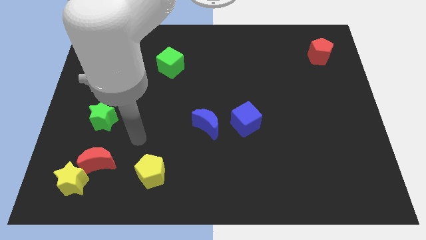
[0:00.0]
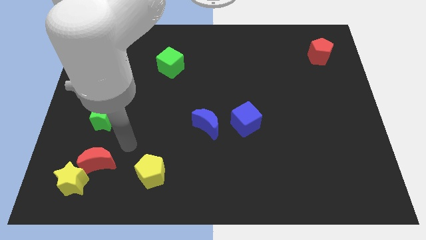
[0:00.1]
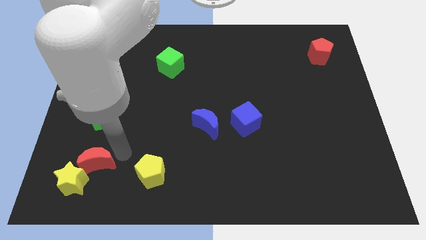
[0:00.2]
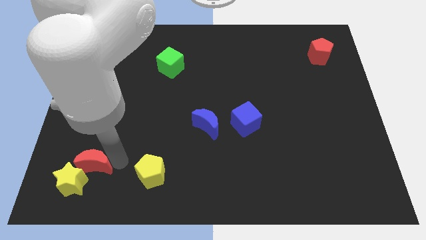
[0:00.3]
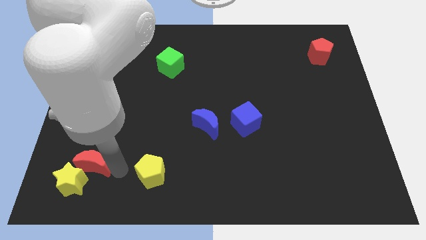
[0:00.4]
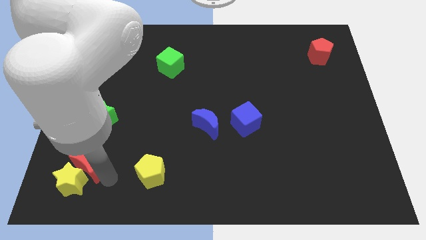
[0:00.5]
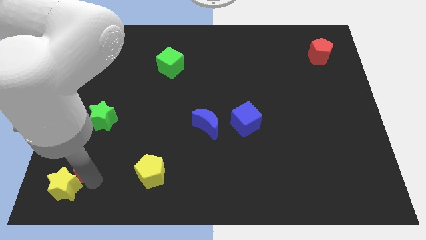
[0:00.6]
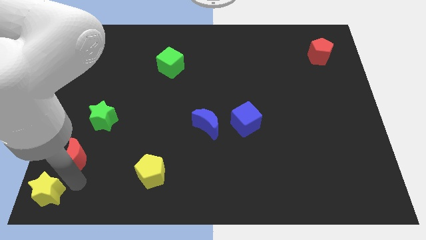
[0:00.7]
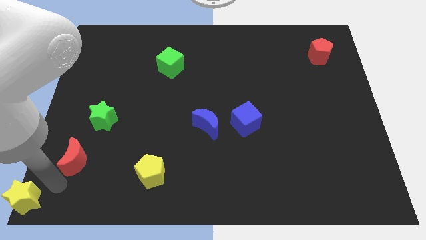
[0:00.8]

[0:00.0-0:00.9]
separate the red moon from the yellow star

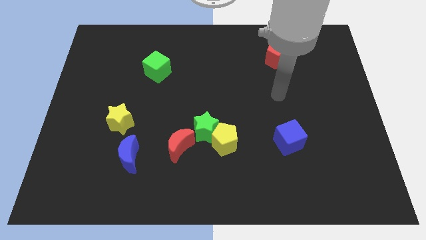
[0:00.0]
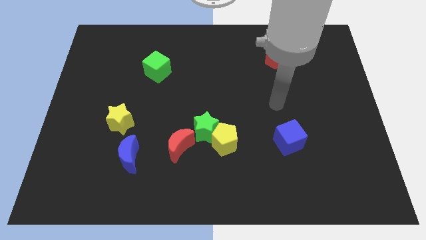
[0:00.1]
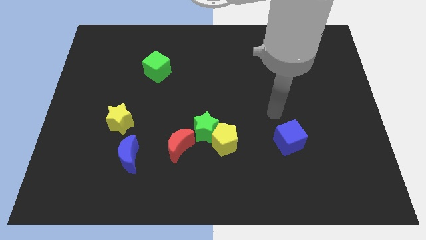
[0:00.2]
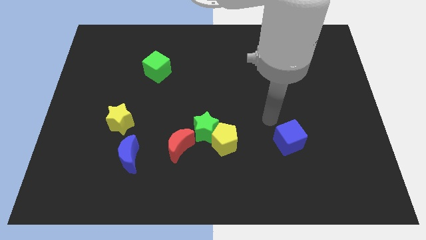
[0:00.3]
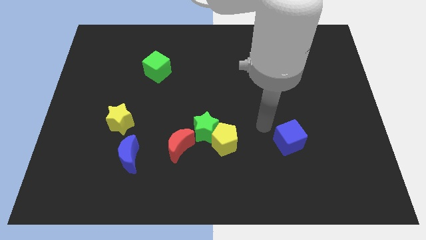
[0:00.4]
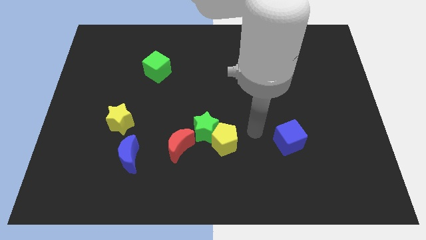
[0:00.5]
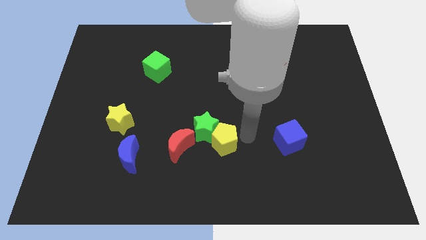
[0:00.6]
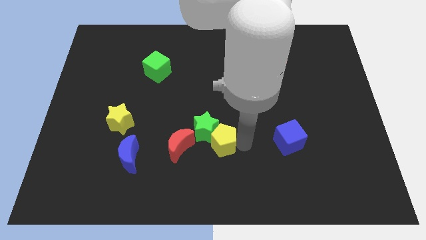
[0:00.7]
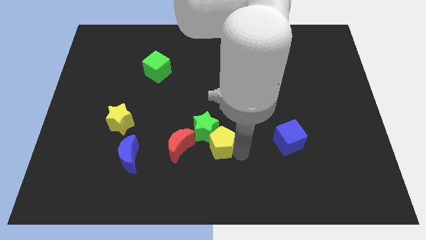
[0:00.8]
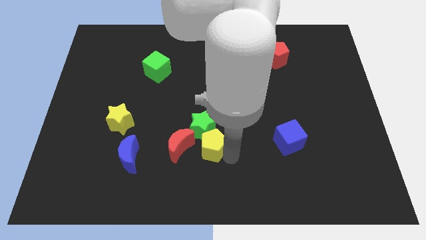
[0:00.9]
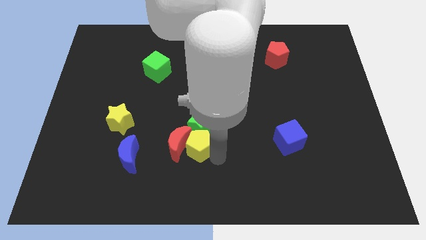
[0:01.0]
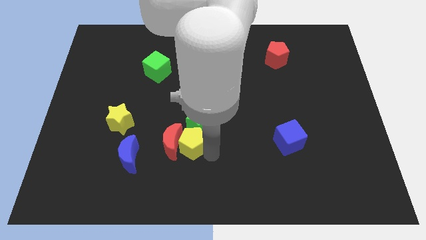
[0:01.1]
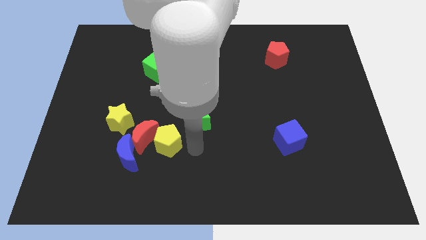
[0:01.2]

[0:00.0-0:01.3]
pull the green star apart from the yellow pentagon and red moon

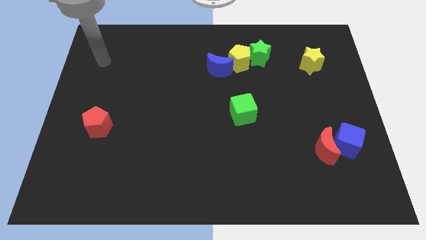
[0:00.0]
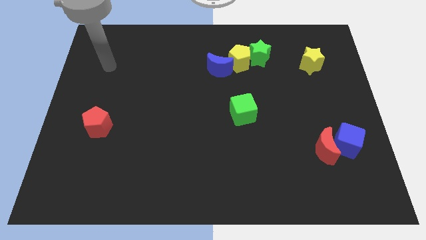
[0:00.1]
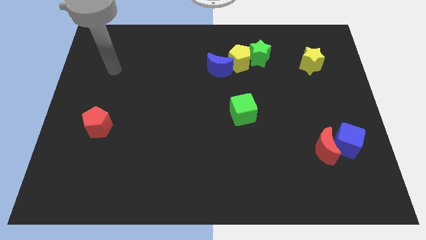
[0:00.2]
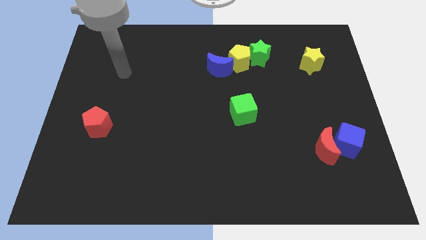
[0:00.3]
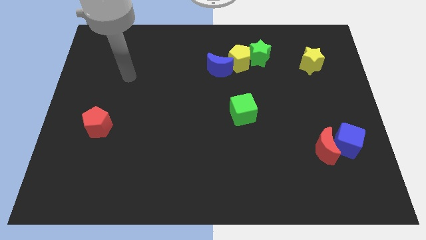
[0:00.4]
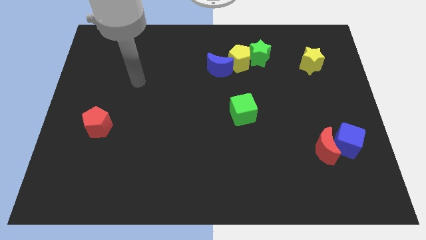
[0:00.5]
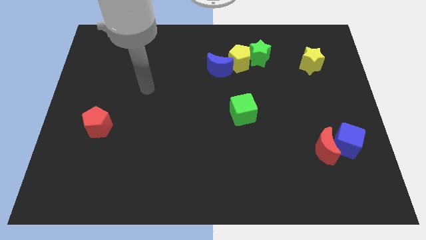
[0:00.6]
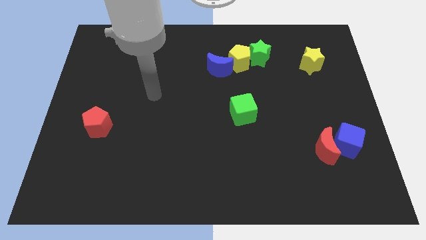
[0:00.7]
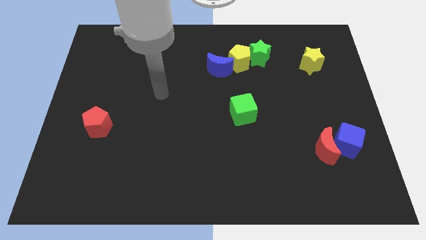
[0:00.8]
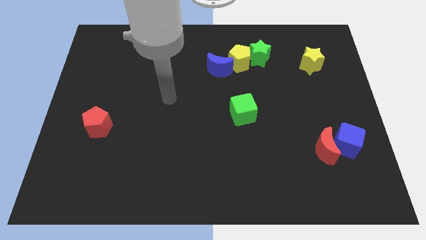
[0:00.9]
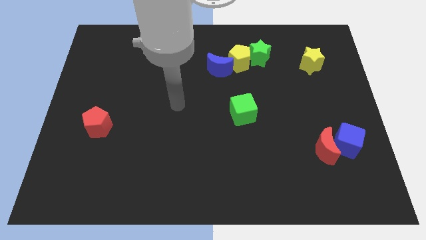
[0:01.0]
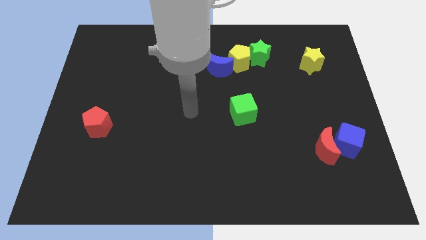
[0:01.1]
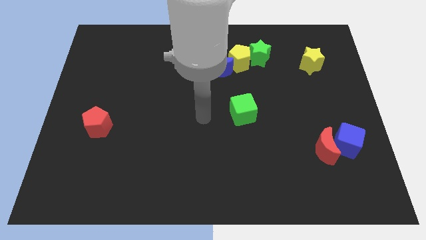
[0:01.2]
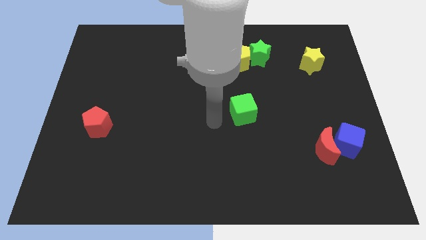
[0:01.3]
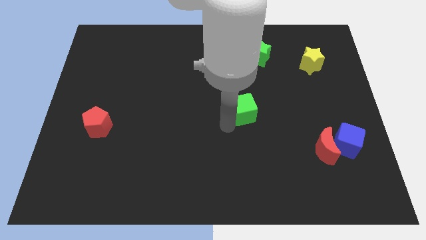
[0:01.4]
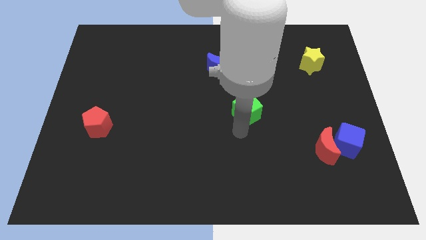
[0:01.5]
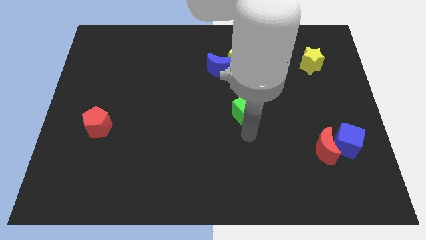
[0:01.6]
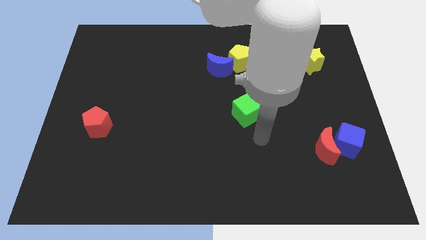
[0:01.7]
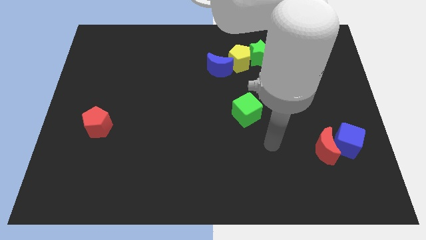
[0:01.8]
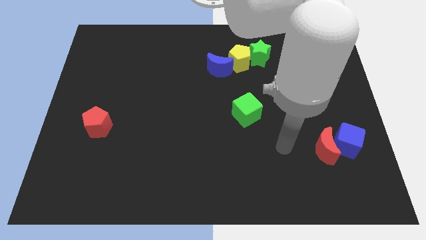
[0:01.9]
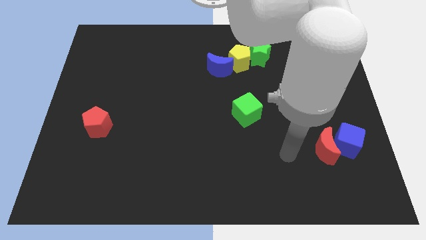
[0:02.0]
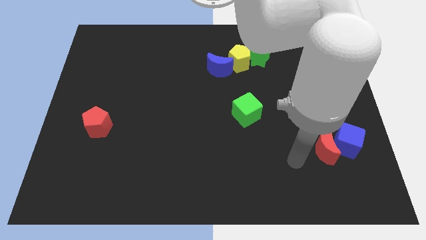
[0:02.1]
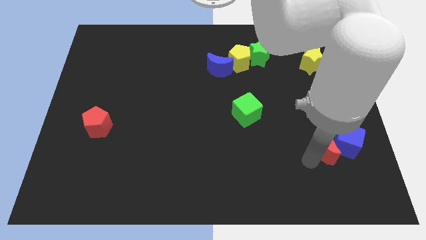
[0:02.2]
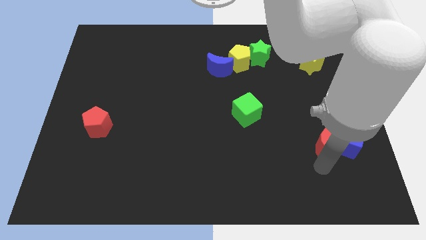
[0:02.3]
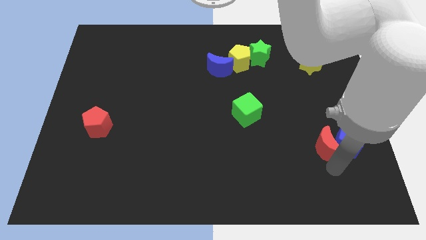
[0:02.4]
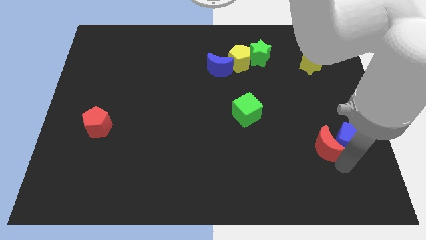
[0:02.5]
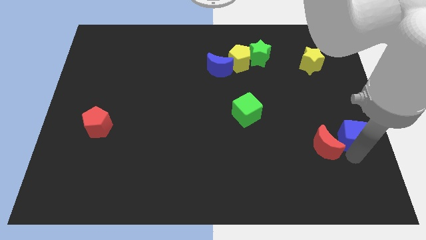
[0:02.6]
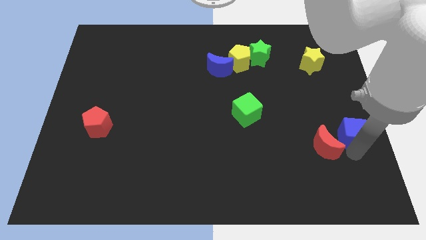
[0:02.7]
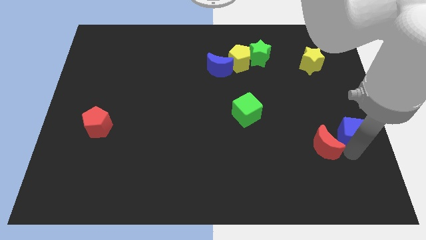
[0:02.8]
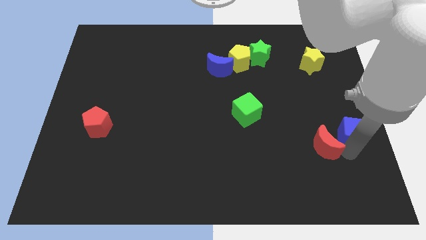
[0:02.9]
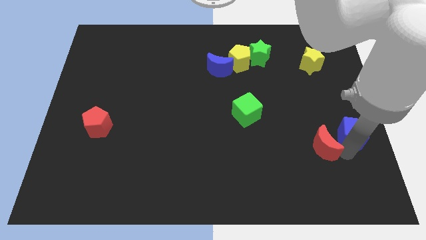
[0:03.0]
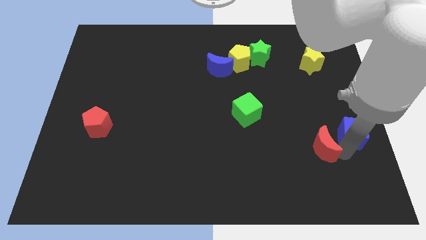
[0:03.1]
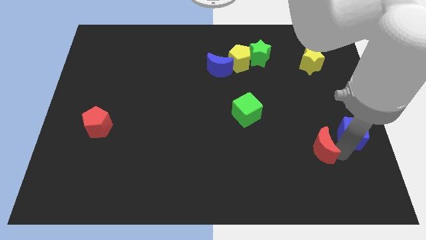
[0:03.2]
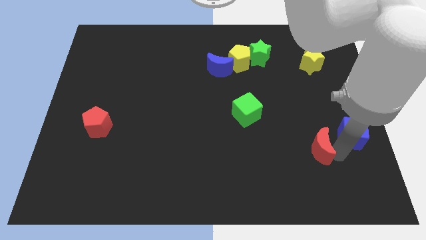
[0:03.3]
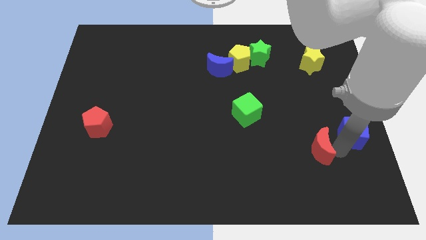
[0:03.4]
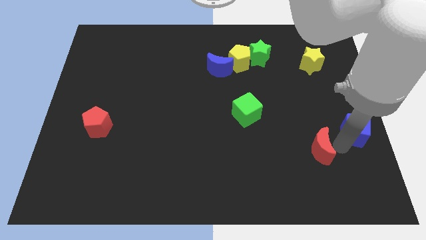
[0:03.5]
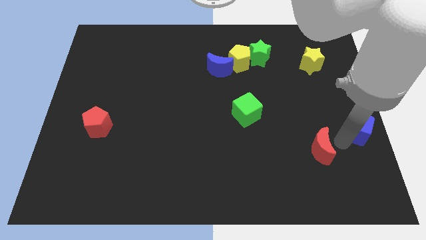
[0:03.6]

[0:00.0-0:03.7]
separate the red moon from the blue cube

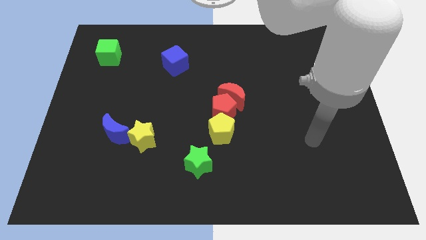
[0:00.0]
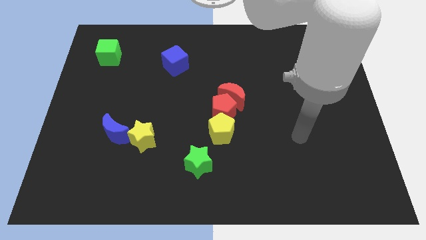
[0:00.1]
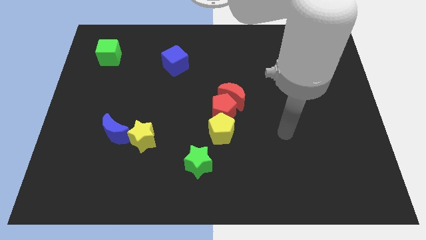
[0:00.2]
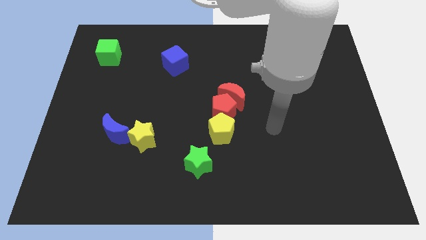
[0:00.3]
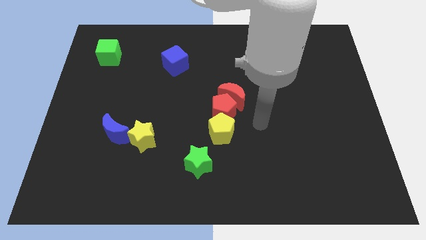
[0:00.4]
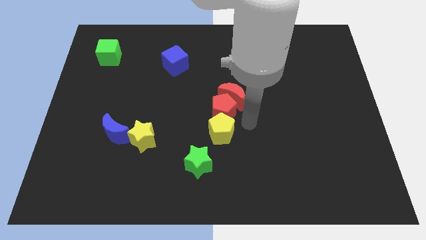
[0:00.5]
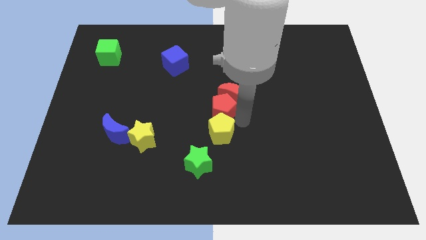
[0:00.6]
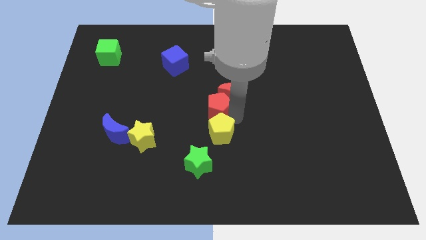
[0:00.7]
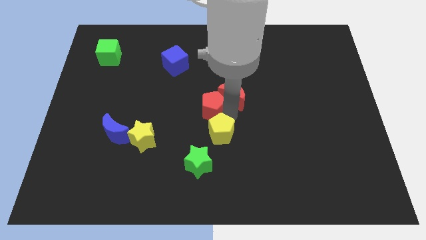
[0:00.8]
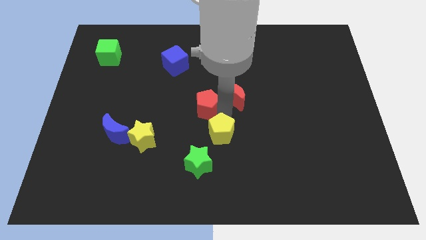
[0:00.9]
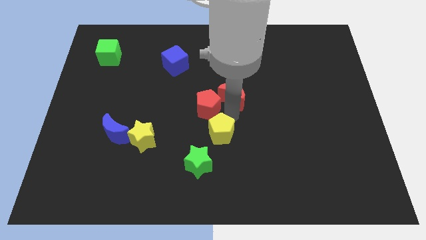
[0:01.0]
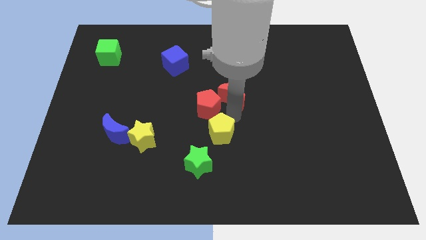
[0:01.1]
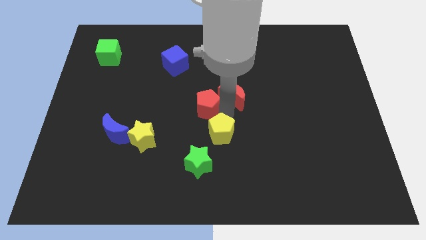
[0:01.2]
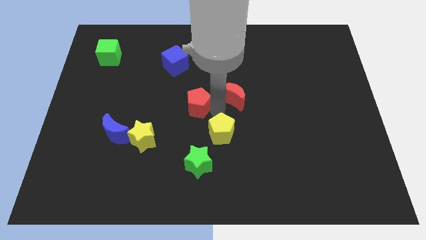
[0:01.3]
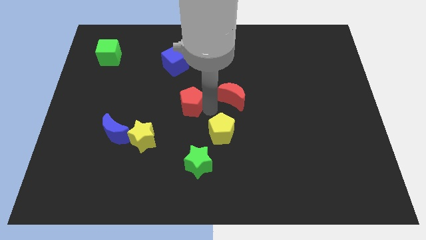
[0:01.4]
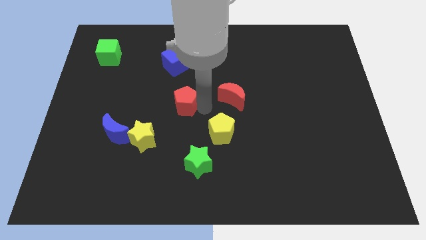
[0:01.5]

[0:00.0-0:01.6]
pull the red pentagon apart from the red moon and yellow pentagon

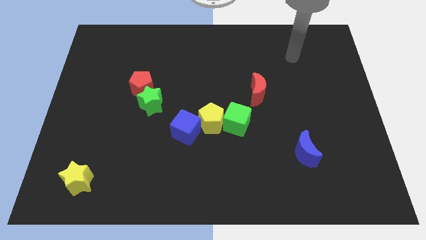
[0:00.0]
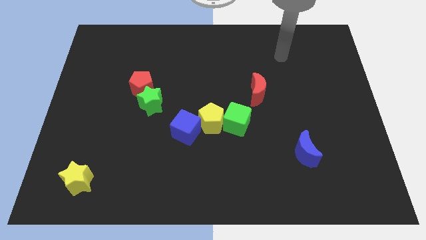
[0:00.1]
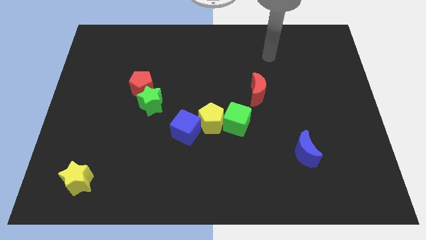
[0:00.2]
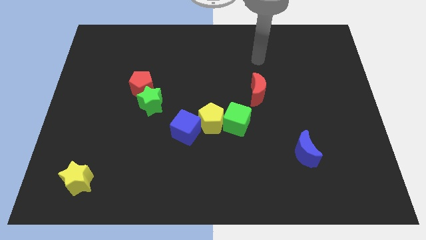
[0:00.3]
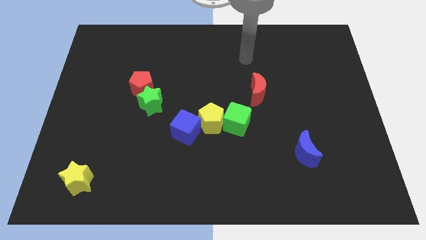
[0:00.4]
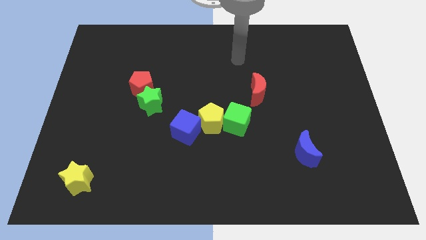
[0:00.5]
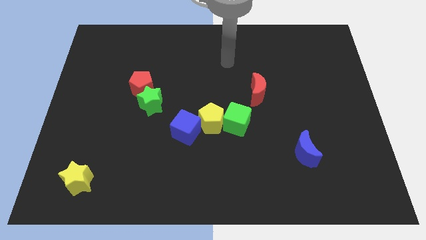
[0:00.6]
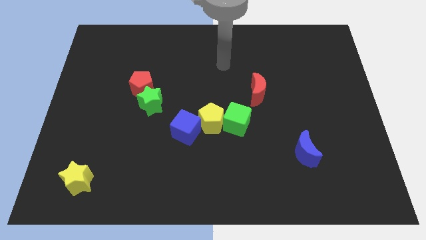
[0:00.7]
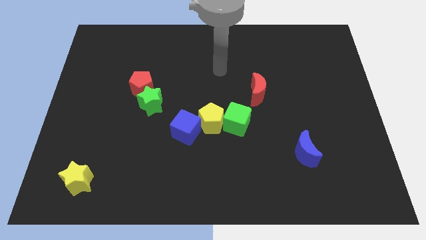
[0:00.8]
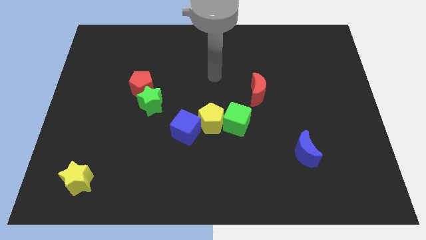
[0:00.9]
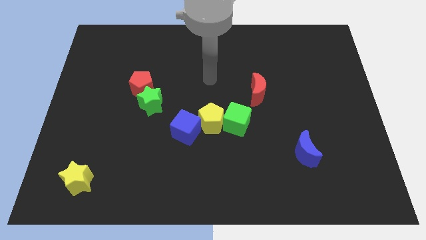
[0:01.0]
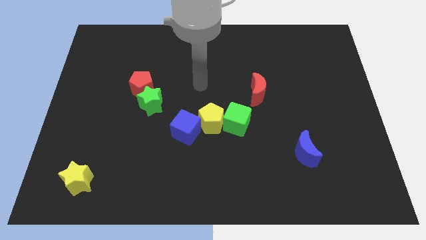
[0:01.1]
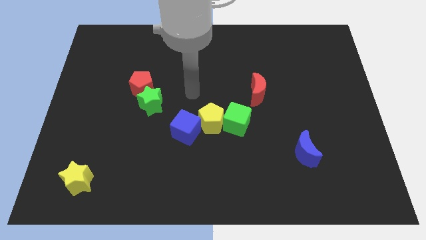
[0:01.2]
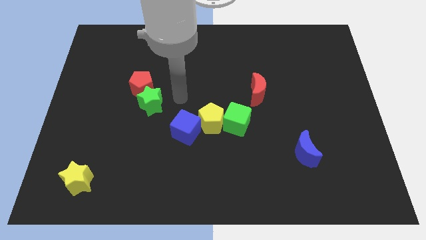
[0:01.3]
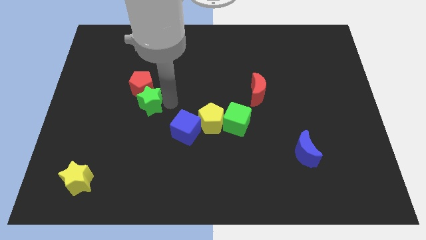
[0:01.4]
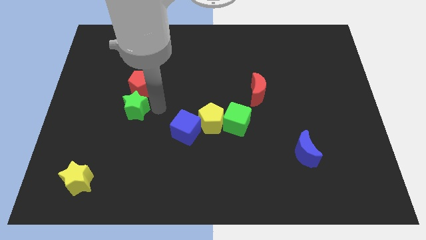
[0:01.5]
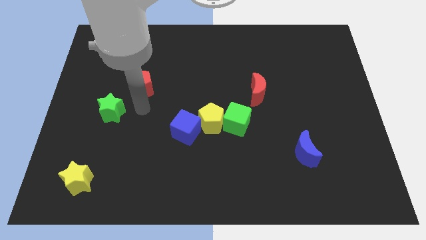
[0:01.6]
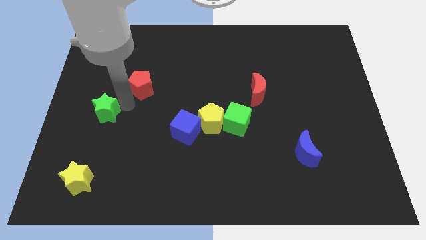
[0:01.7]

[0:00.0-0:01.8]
separate the red pentagon from the green star
